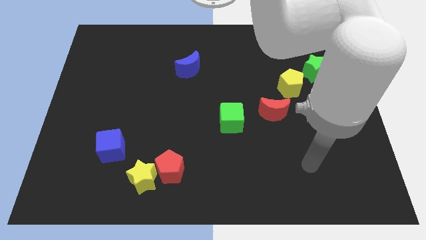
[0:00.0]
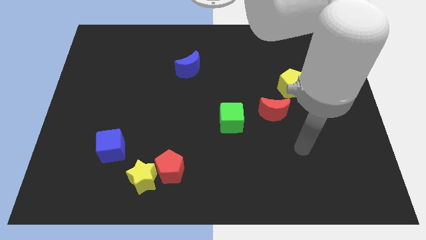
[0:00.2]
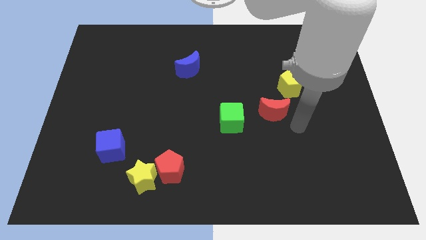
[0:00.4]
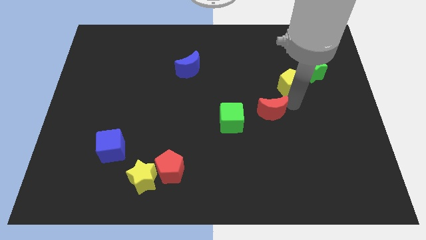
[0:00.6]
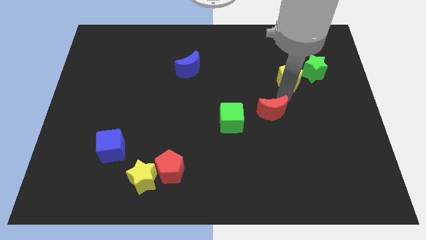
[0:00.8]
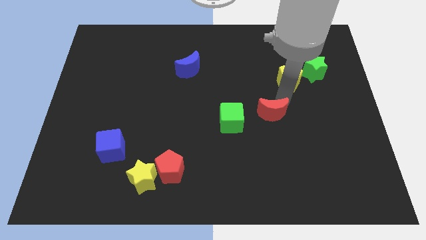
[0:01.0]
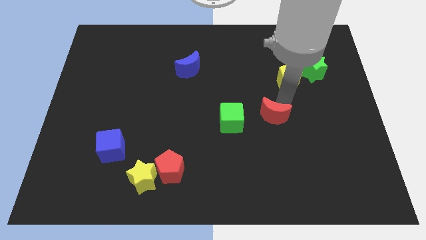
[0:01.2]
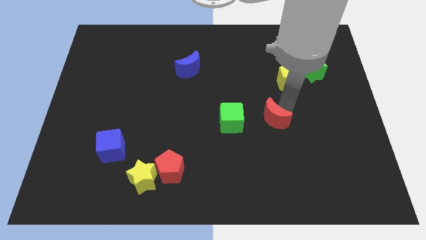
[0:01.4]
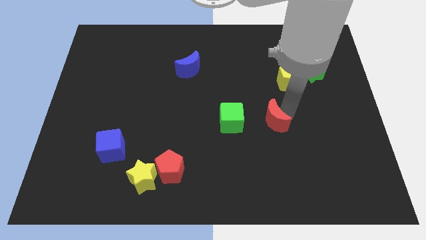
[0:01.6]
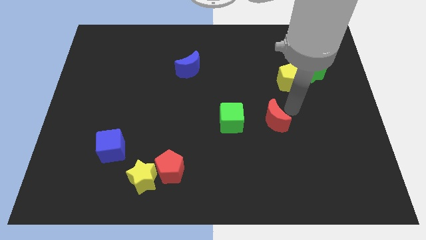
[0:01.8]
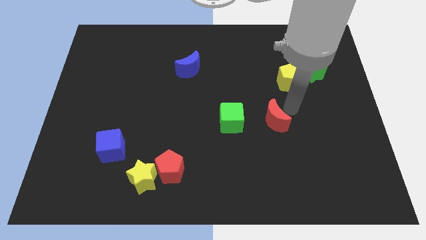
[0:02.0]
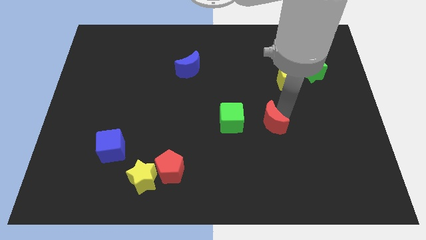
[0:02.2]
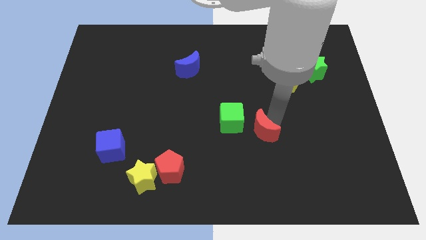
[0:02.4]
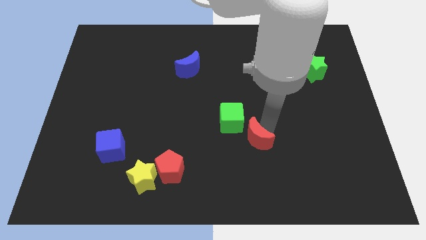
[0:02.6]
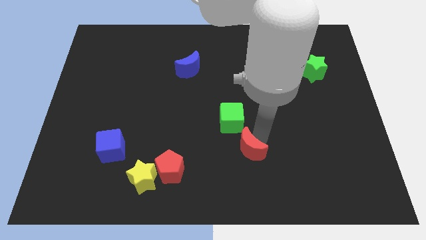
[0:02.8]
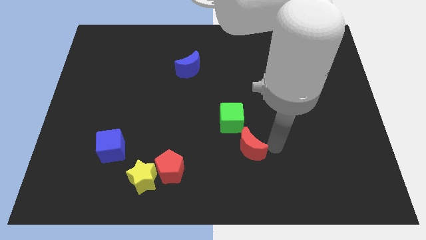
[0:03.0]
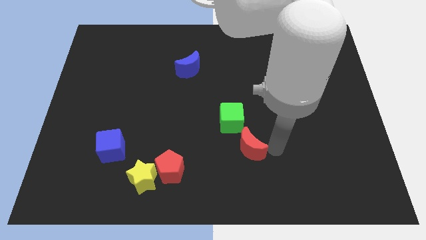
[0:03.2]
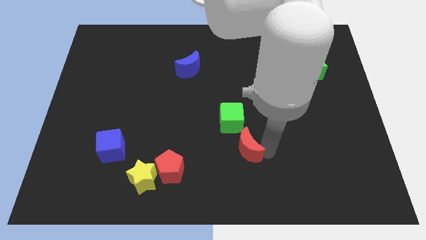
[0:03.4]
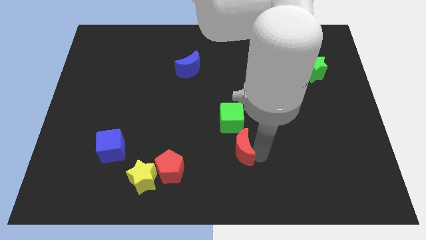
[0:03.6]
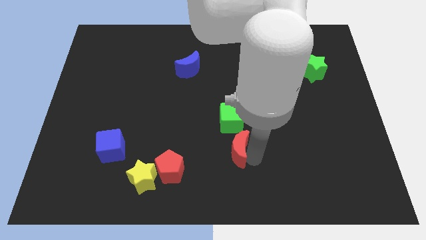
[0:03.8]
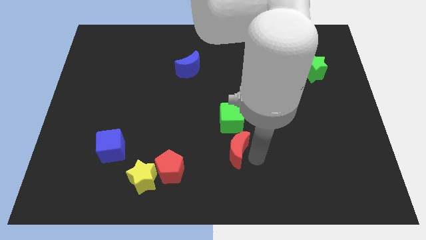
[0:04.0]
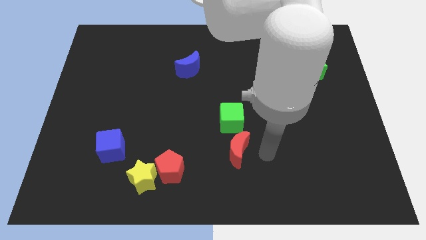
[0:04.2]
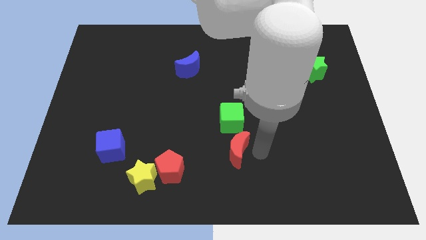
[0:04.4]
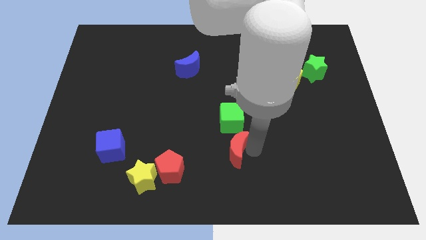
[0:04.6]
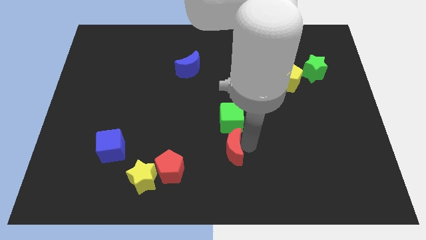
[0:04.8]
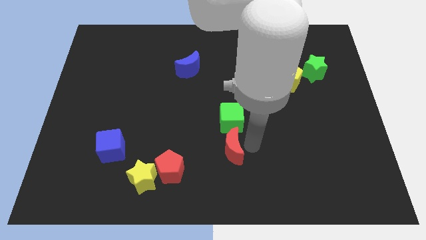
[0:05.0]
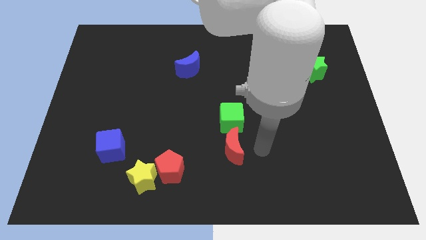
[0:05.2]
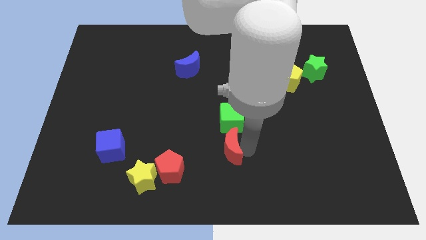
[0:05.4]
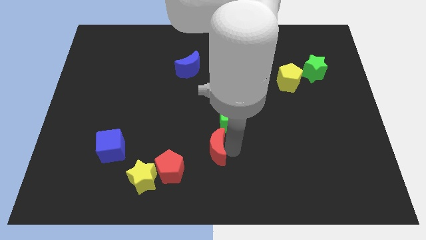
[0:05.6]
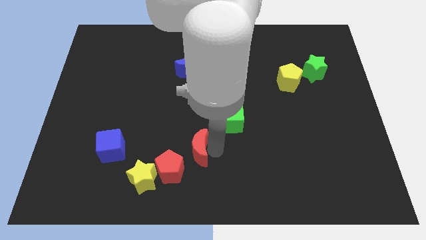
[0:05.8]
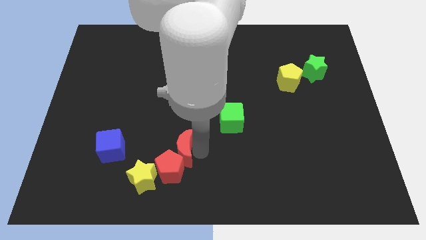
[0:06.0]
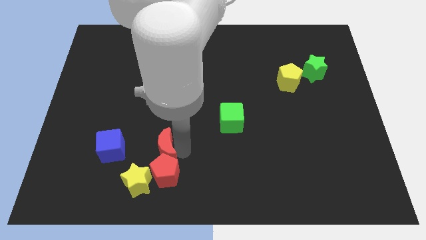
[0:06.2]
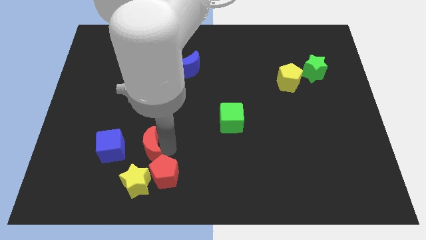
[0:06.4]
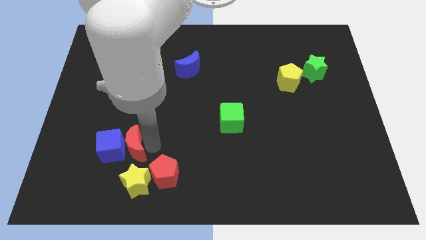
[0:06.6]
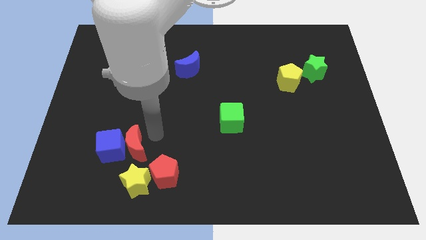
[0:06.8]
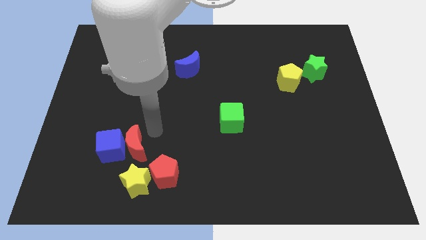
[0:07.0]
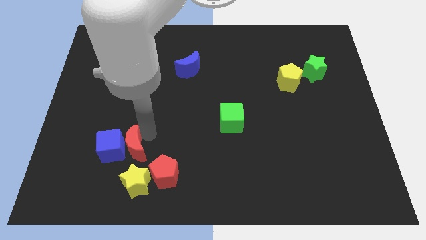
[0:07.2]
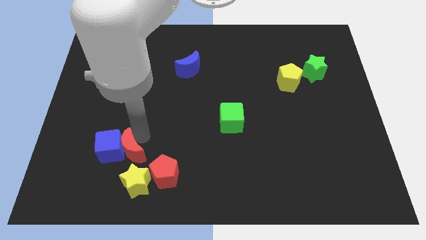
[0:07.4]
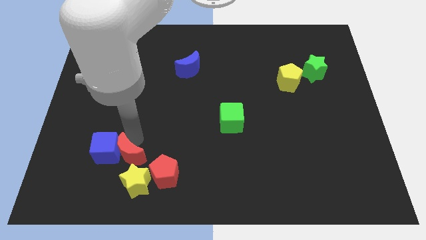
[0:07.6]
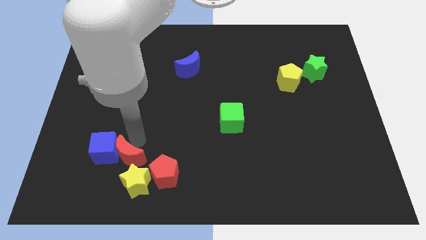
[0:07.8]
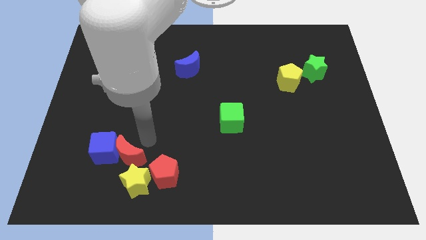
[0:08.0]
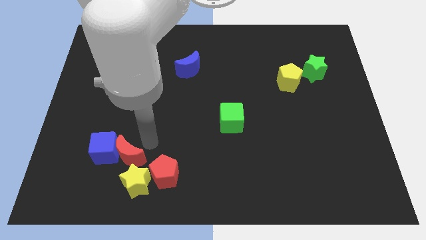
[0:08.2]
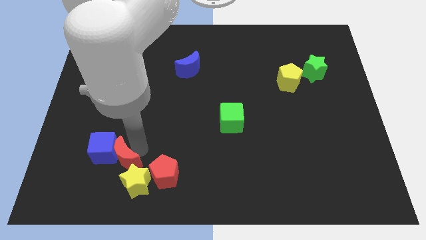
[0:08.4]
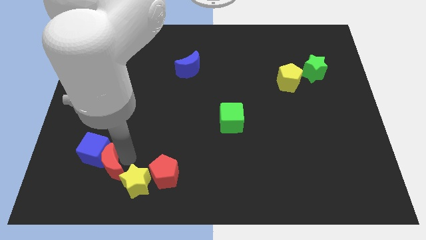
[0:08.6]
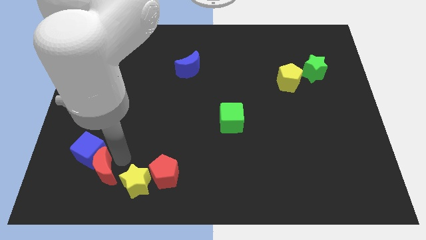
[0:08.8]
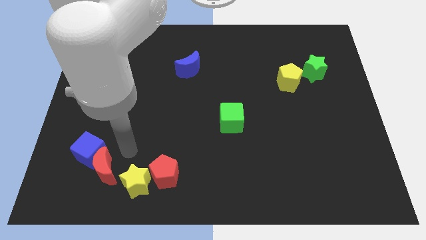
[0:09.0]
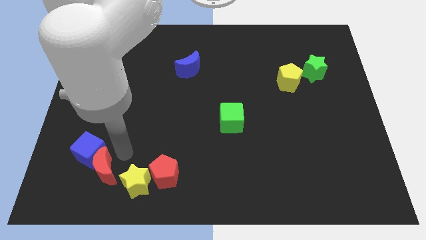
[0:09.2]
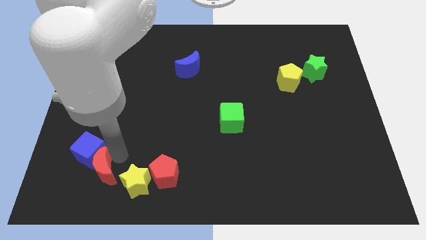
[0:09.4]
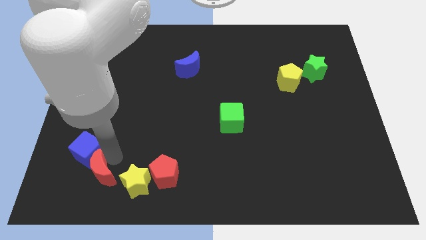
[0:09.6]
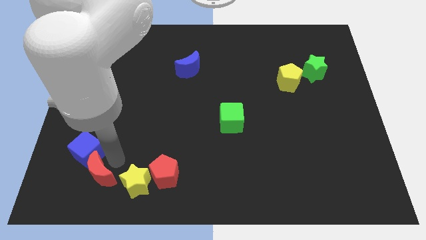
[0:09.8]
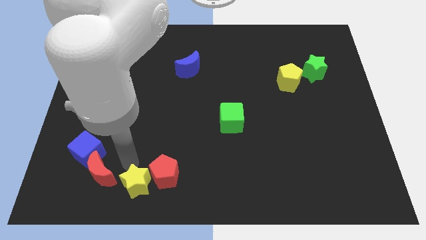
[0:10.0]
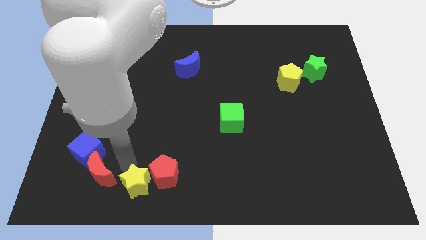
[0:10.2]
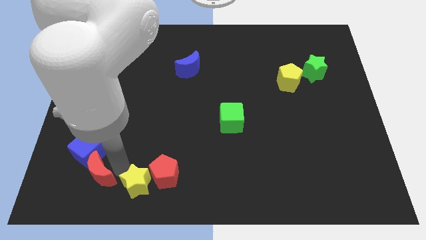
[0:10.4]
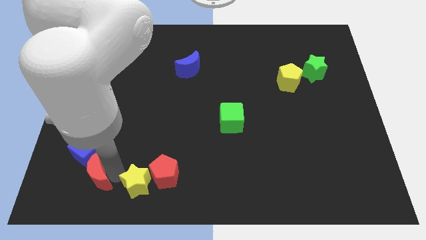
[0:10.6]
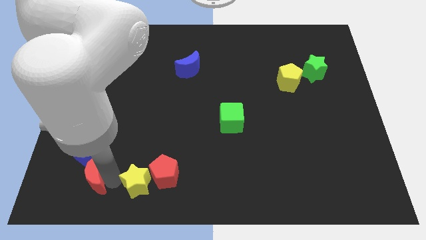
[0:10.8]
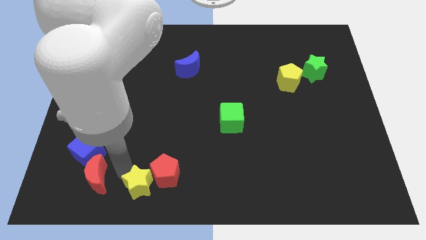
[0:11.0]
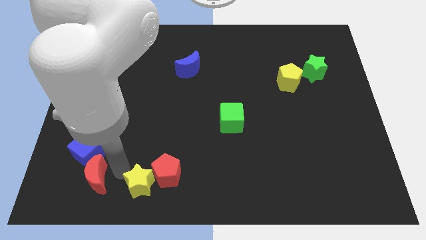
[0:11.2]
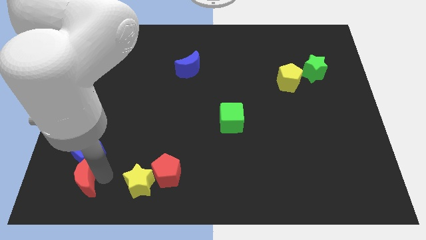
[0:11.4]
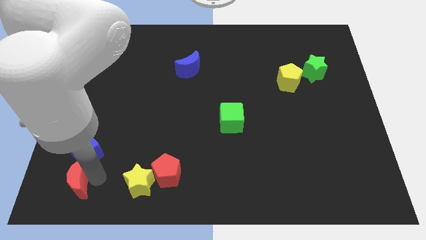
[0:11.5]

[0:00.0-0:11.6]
put the red moon to the lower left corner

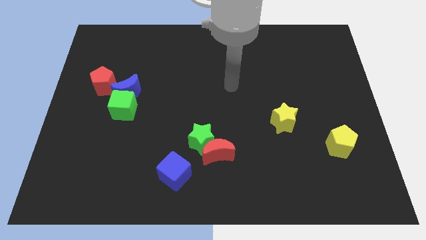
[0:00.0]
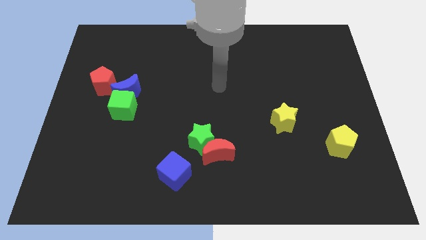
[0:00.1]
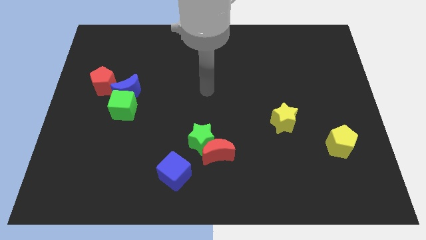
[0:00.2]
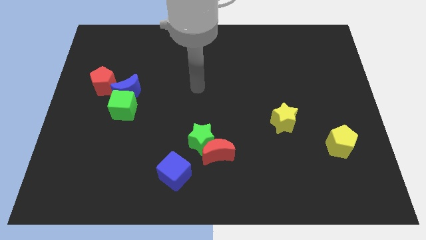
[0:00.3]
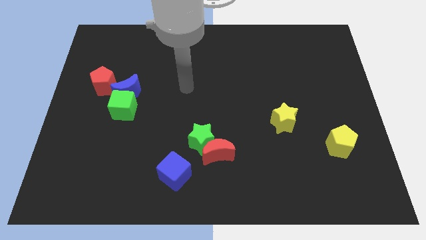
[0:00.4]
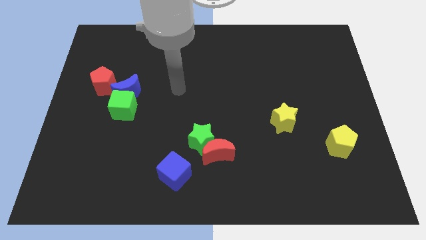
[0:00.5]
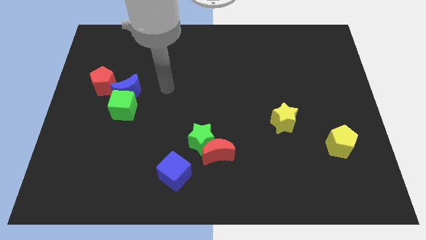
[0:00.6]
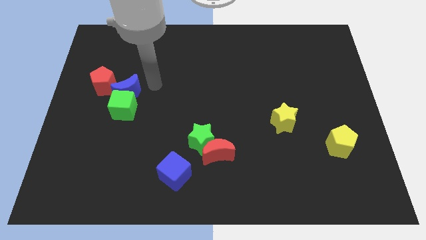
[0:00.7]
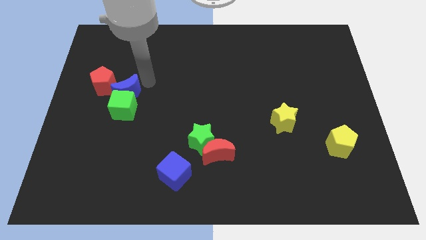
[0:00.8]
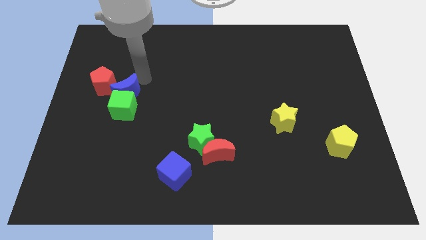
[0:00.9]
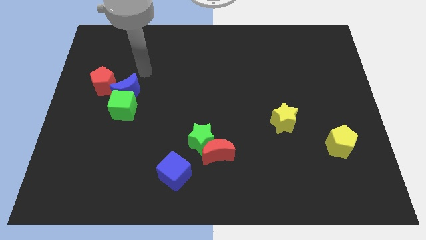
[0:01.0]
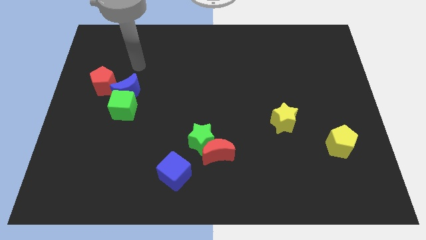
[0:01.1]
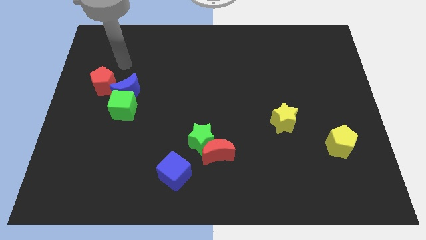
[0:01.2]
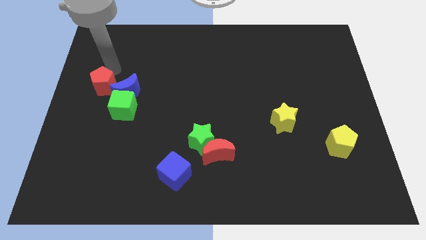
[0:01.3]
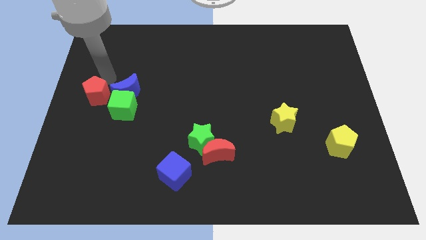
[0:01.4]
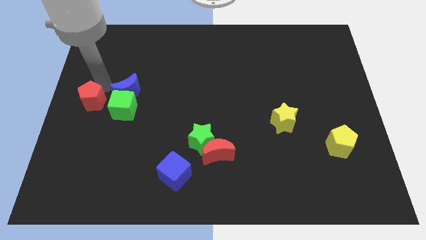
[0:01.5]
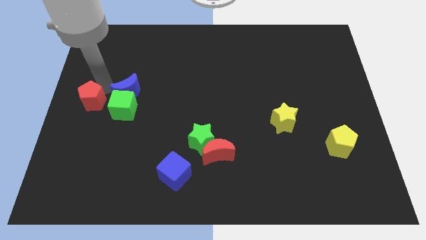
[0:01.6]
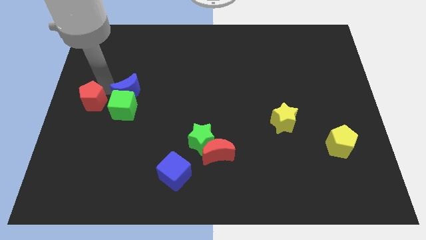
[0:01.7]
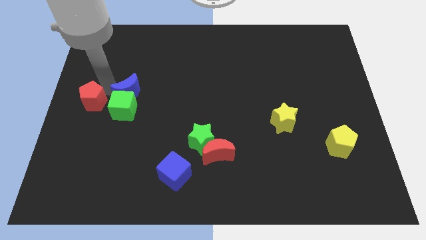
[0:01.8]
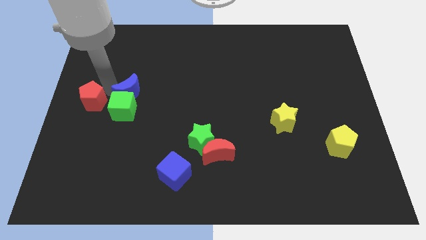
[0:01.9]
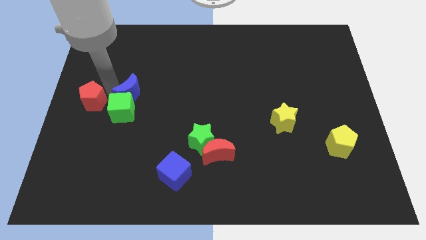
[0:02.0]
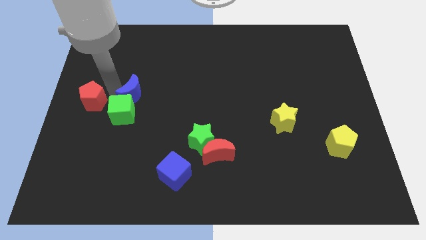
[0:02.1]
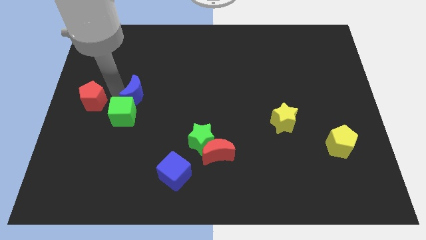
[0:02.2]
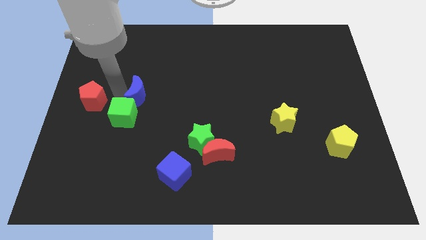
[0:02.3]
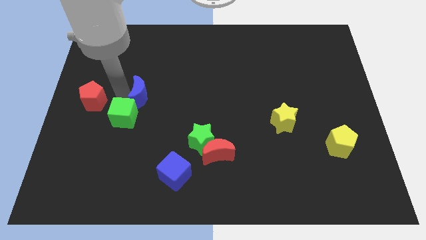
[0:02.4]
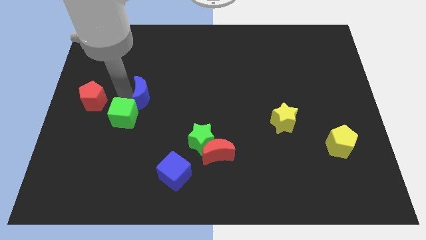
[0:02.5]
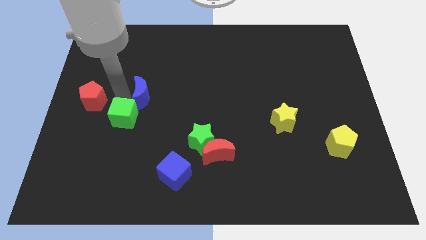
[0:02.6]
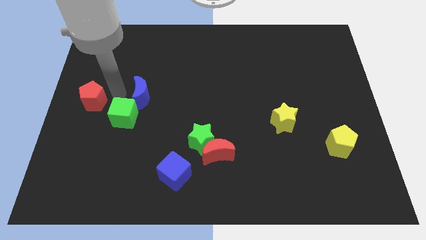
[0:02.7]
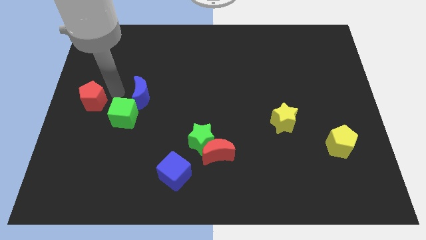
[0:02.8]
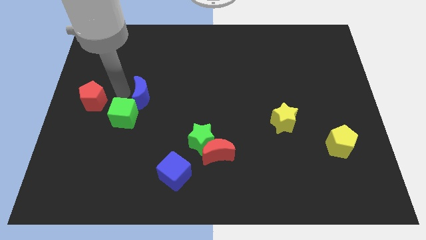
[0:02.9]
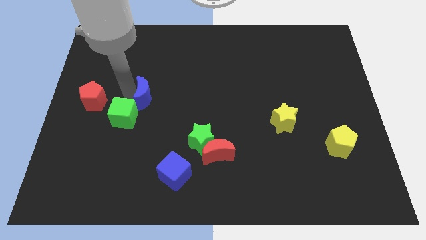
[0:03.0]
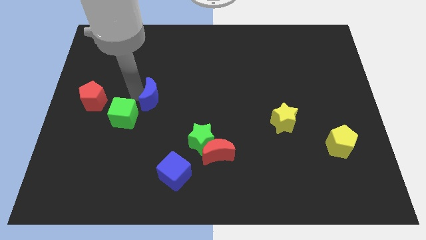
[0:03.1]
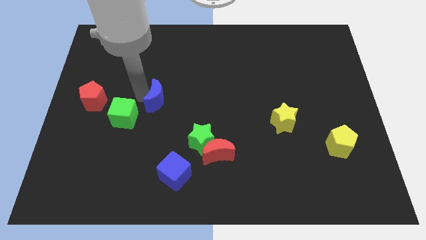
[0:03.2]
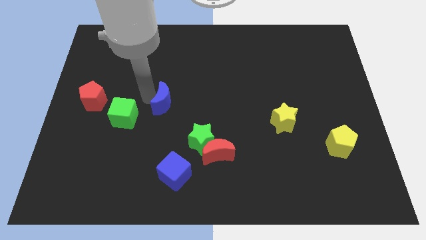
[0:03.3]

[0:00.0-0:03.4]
put the blue moon to the center of the board
